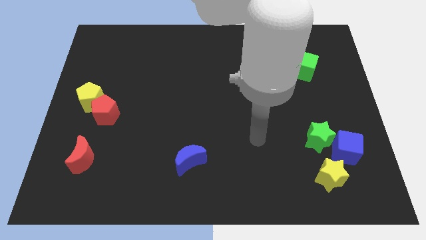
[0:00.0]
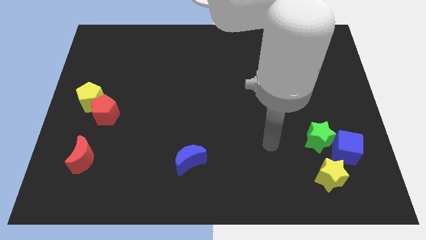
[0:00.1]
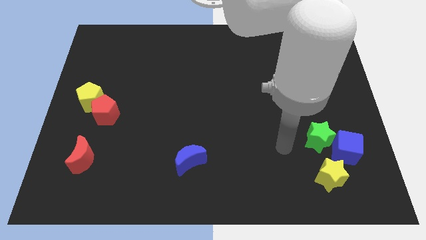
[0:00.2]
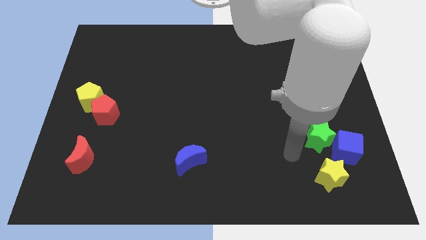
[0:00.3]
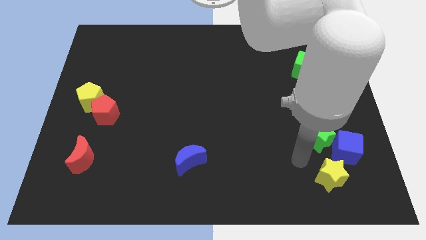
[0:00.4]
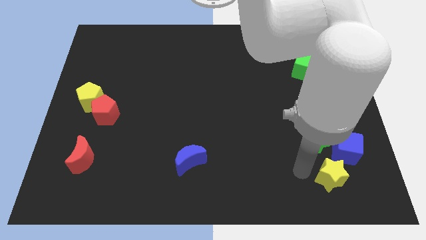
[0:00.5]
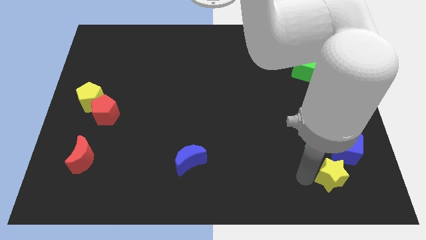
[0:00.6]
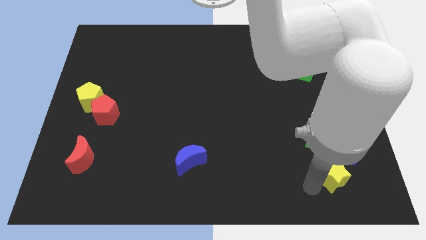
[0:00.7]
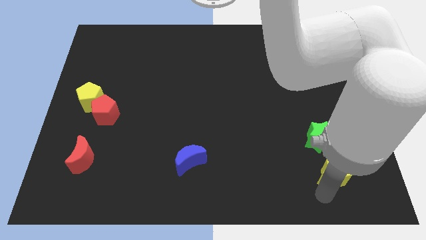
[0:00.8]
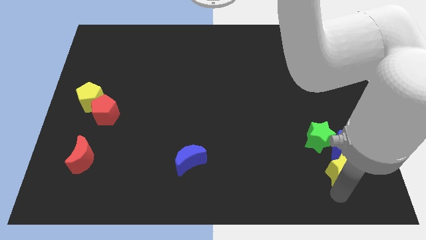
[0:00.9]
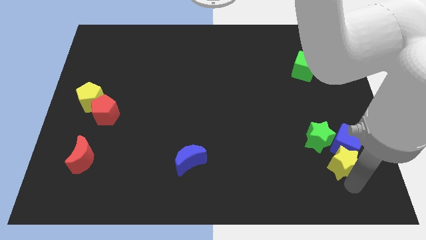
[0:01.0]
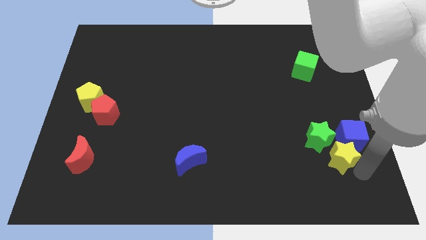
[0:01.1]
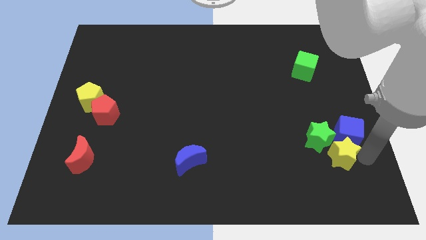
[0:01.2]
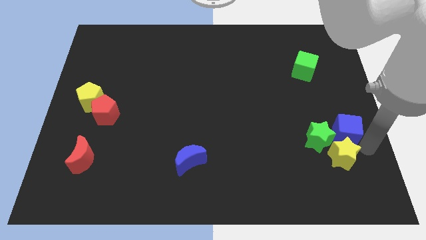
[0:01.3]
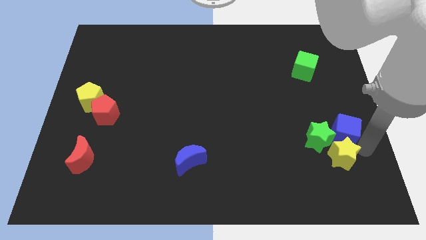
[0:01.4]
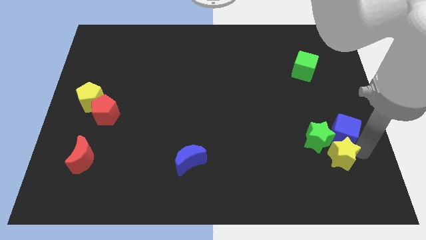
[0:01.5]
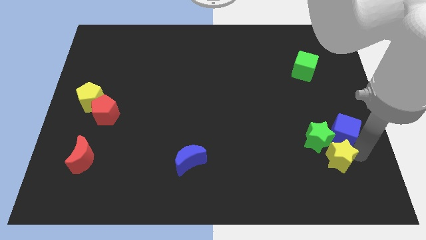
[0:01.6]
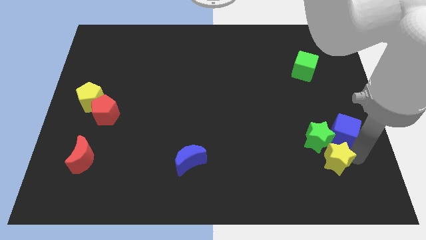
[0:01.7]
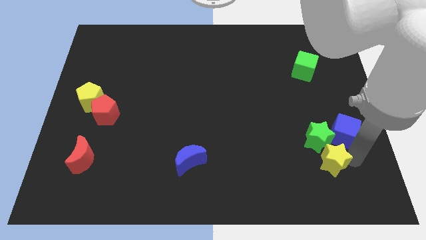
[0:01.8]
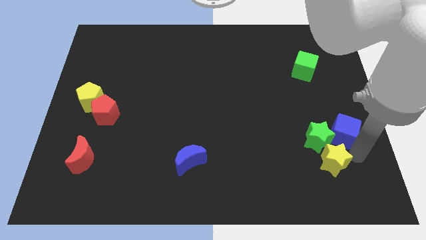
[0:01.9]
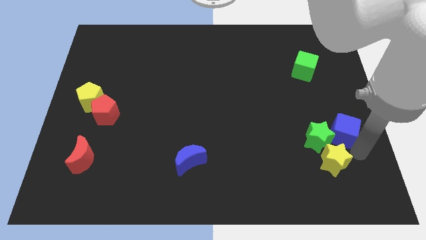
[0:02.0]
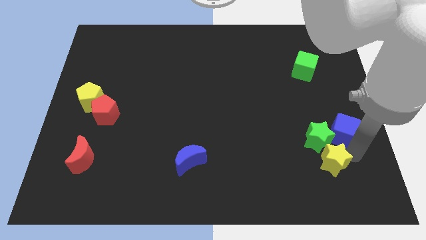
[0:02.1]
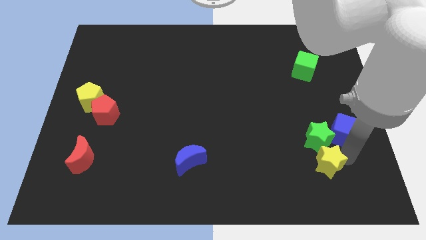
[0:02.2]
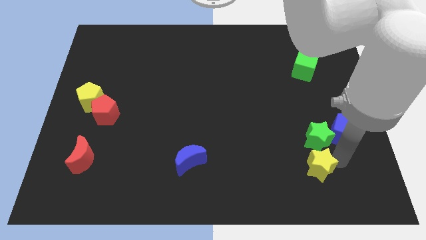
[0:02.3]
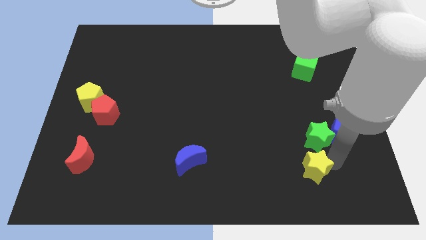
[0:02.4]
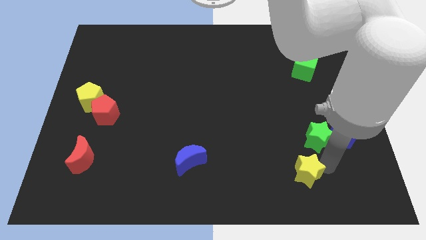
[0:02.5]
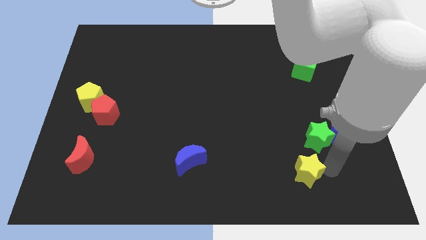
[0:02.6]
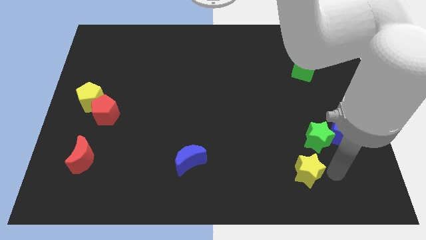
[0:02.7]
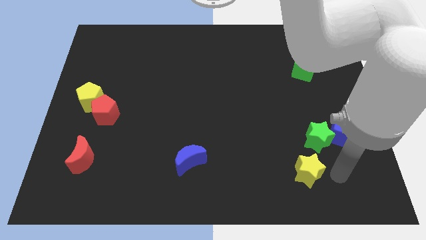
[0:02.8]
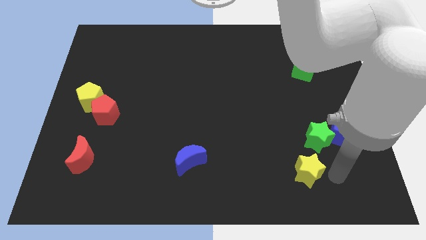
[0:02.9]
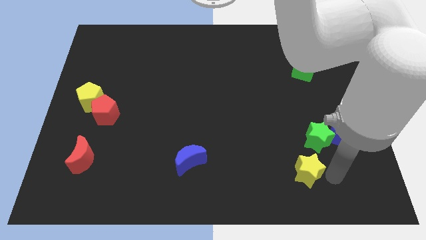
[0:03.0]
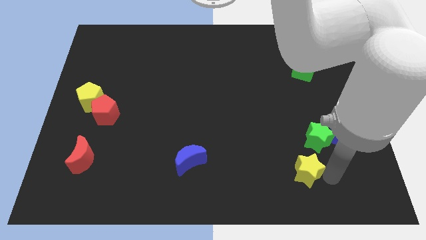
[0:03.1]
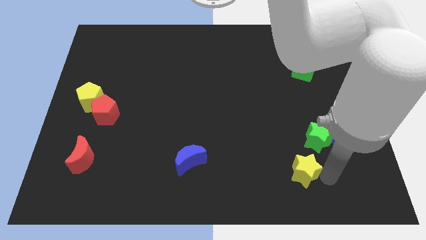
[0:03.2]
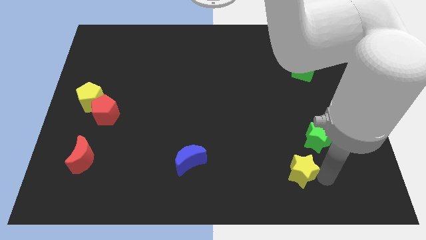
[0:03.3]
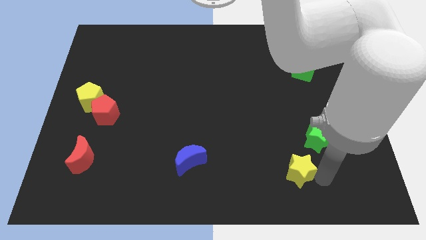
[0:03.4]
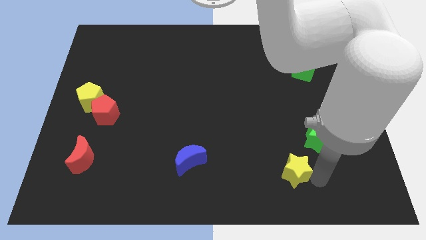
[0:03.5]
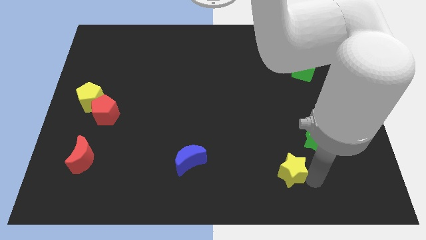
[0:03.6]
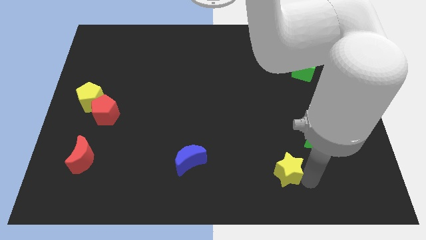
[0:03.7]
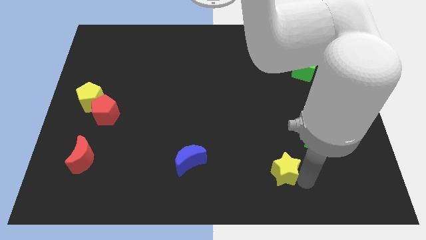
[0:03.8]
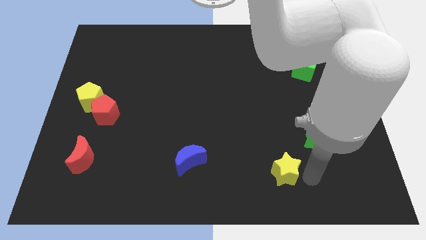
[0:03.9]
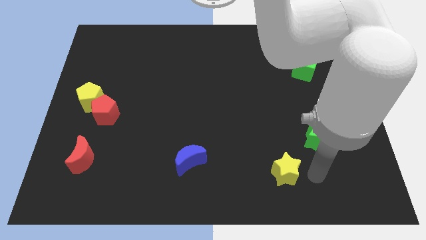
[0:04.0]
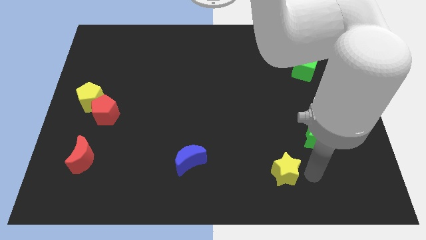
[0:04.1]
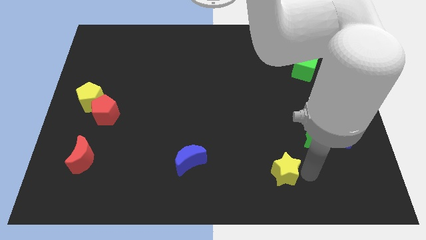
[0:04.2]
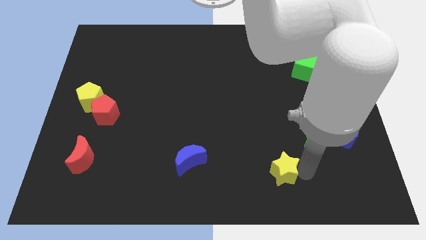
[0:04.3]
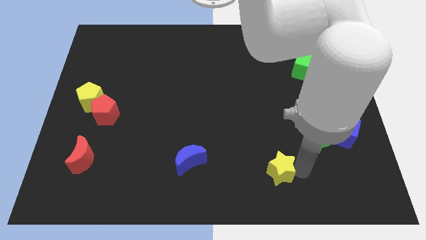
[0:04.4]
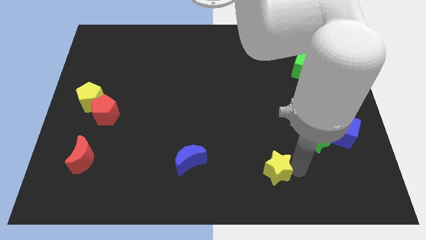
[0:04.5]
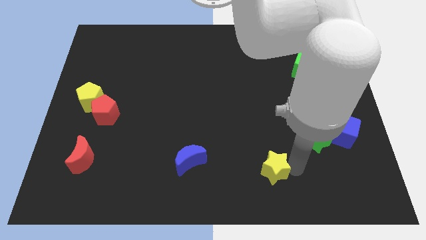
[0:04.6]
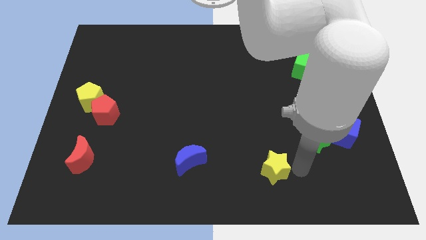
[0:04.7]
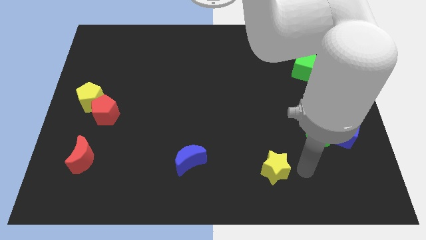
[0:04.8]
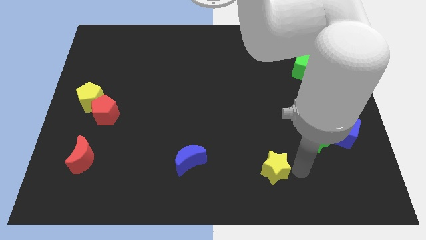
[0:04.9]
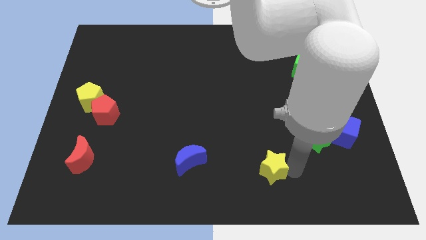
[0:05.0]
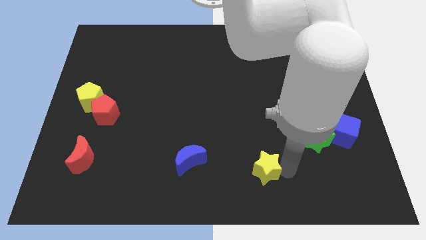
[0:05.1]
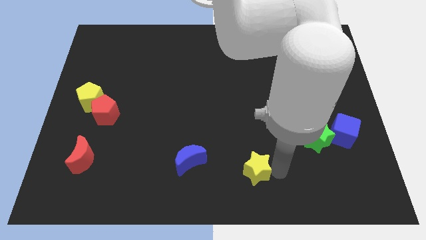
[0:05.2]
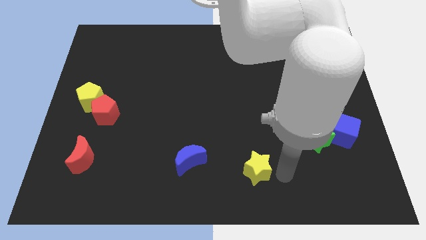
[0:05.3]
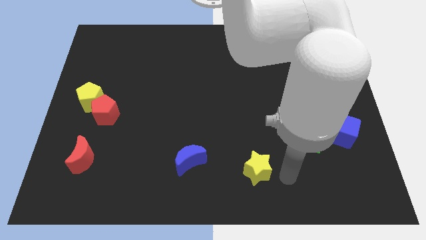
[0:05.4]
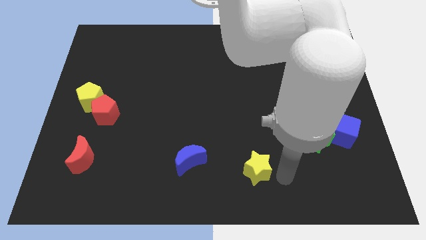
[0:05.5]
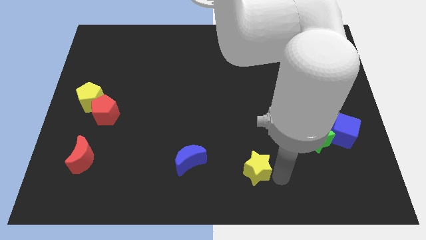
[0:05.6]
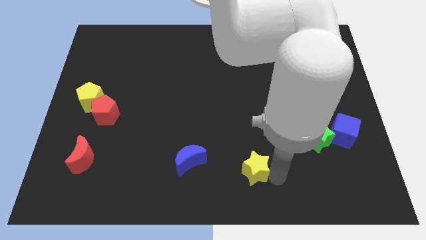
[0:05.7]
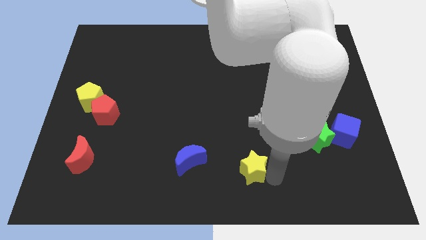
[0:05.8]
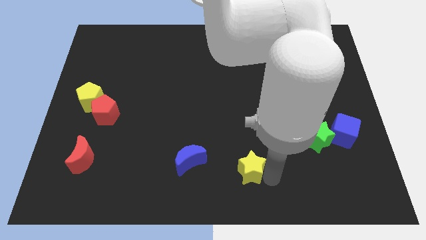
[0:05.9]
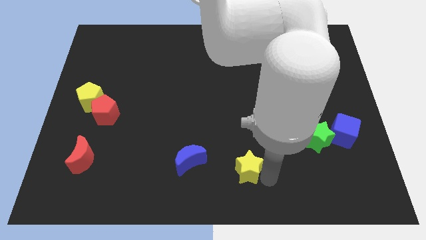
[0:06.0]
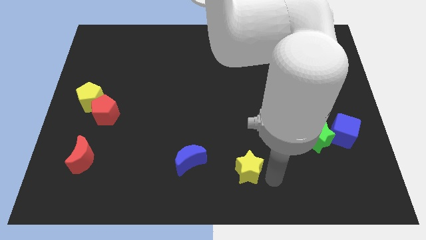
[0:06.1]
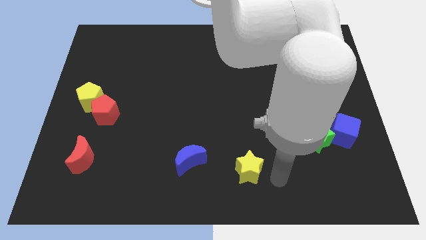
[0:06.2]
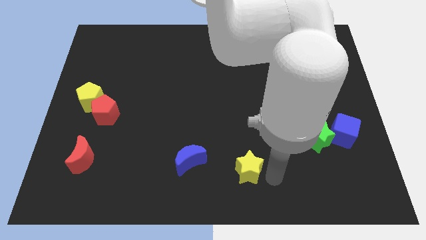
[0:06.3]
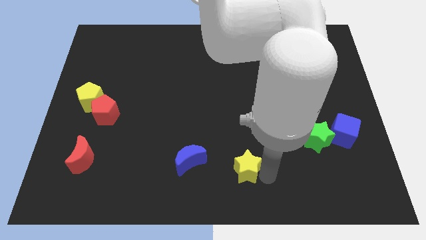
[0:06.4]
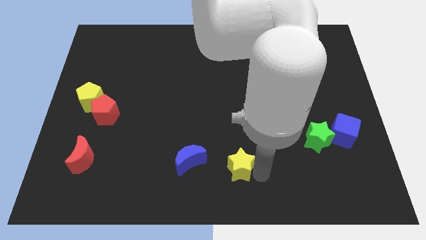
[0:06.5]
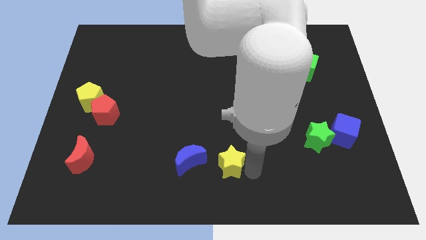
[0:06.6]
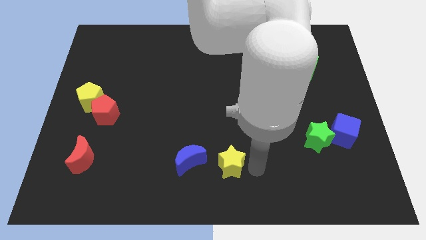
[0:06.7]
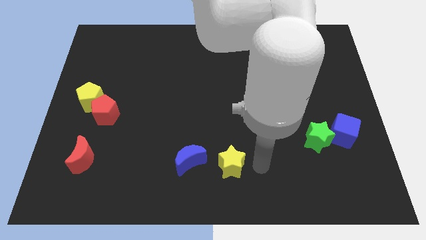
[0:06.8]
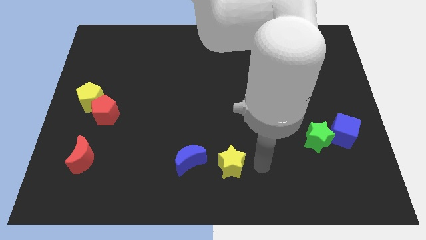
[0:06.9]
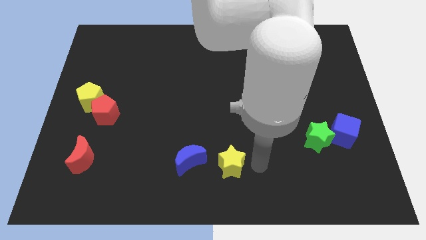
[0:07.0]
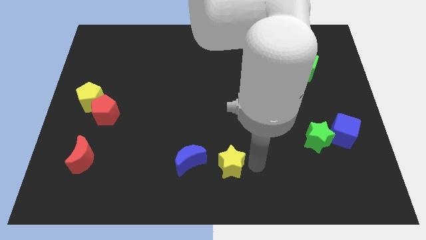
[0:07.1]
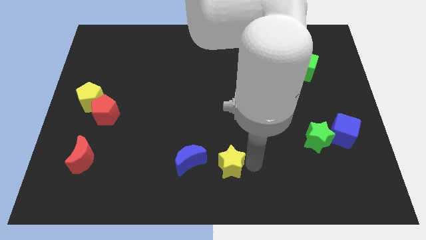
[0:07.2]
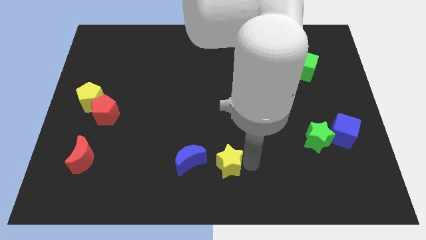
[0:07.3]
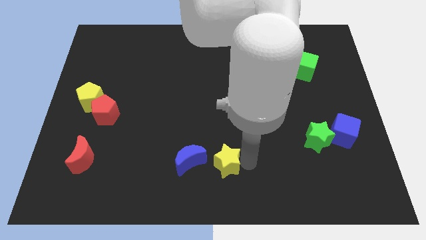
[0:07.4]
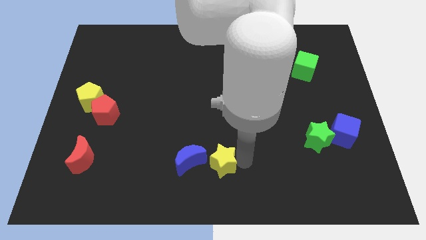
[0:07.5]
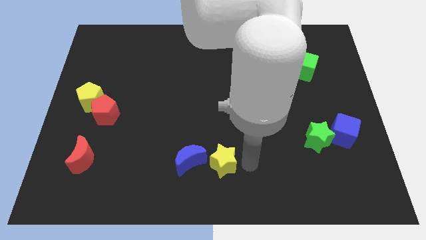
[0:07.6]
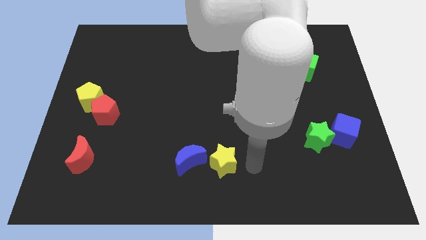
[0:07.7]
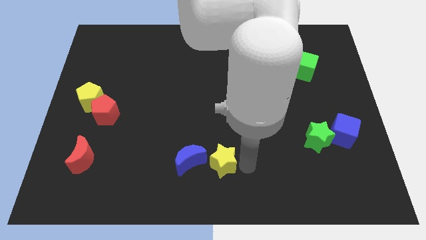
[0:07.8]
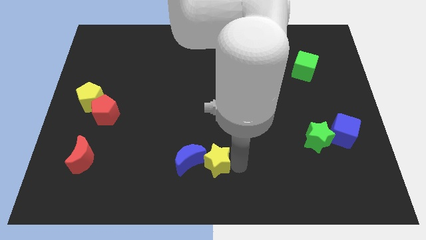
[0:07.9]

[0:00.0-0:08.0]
put the yellow star next to the blue moon
